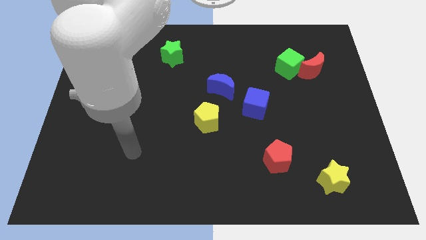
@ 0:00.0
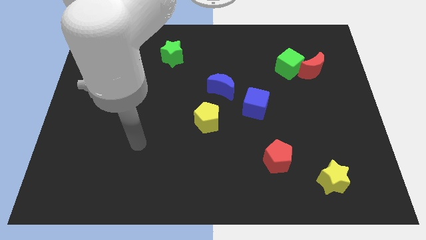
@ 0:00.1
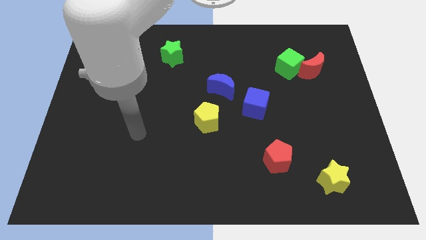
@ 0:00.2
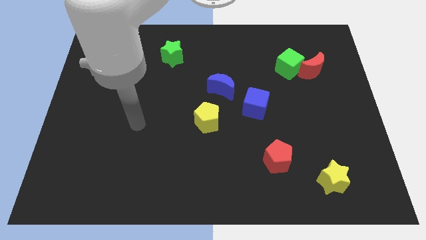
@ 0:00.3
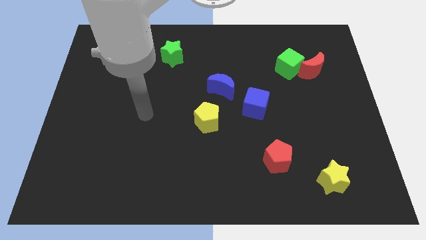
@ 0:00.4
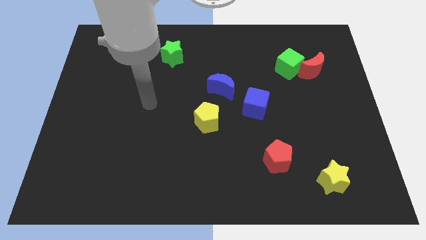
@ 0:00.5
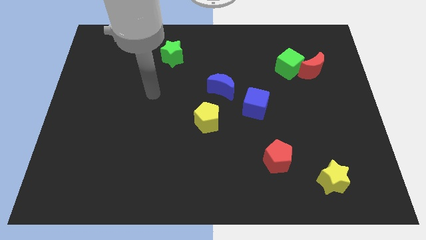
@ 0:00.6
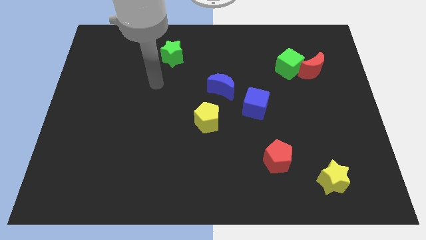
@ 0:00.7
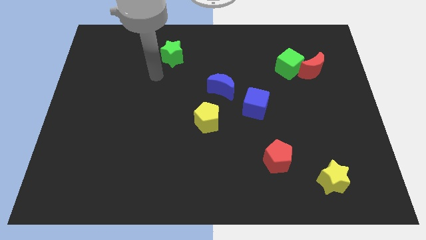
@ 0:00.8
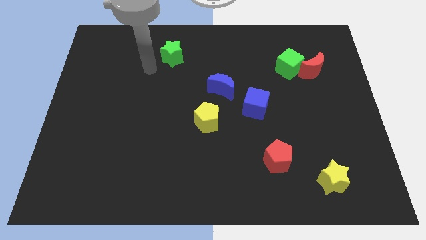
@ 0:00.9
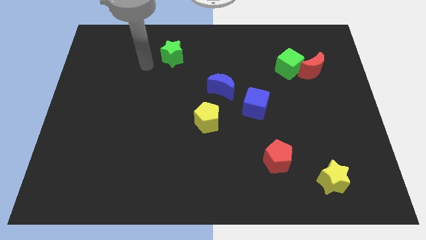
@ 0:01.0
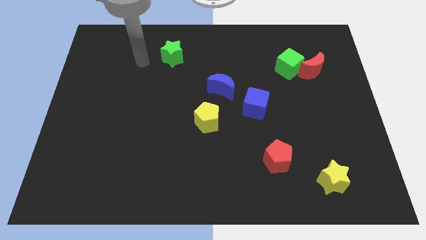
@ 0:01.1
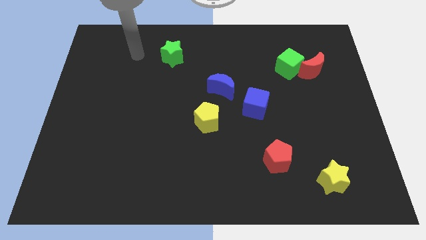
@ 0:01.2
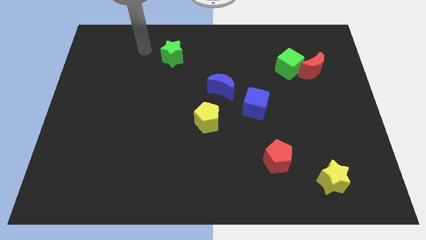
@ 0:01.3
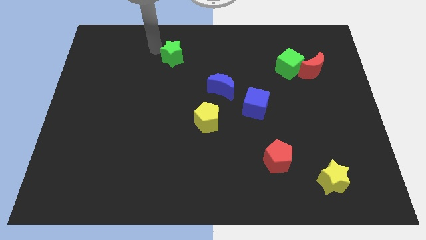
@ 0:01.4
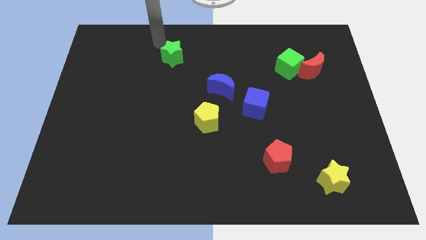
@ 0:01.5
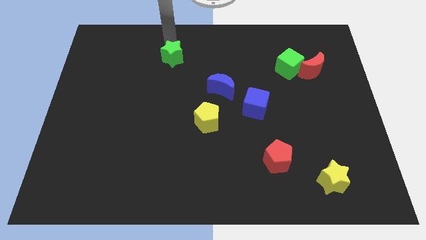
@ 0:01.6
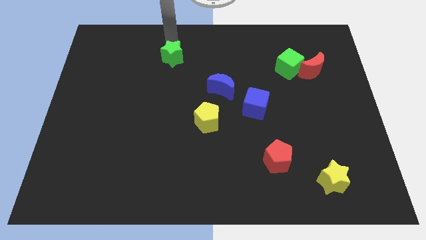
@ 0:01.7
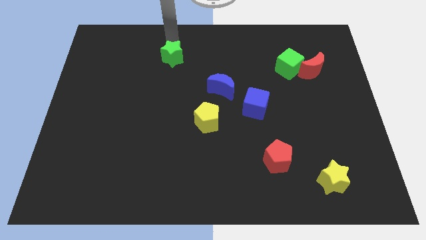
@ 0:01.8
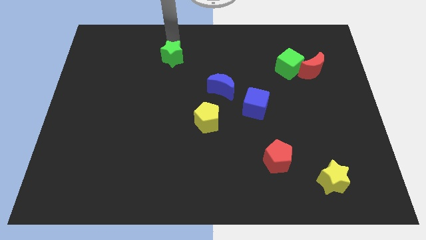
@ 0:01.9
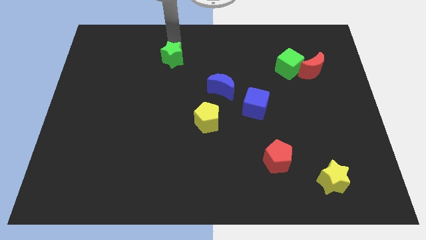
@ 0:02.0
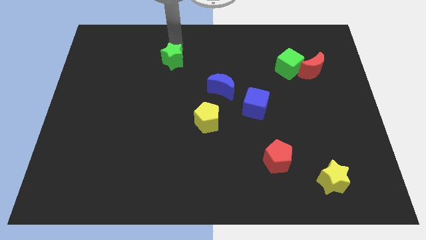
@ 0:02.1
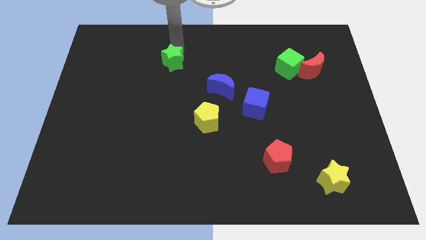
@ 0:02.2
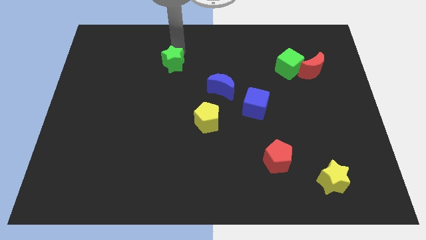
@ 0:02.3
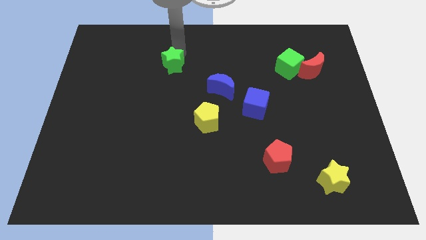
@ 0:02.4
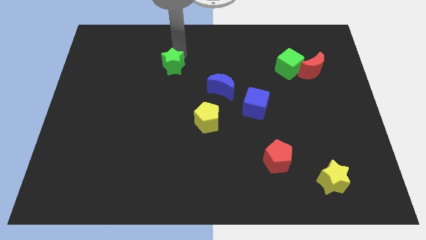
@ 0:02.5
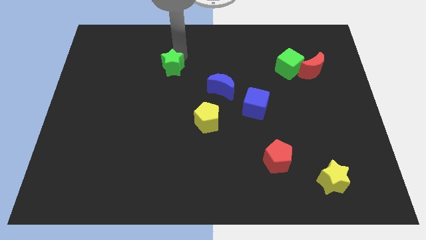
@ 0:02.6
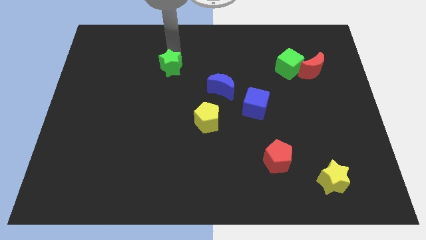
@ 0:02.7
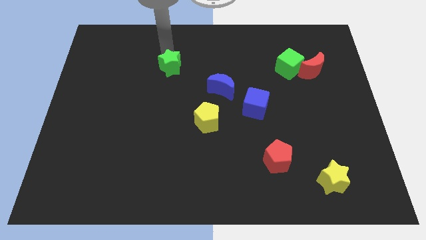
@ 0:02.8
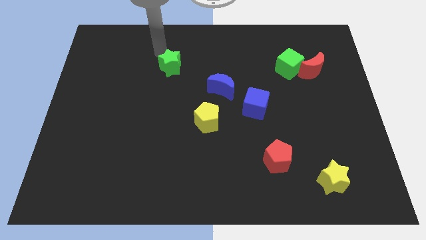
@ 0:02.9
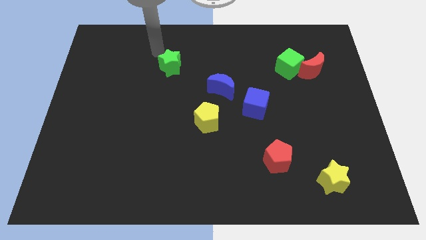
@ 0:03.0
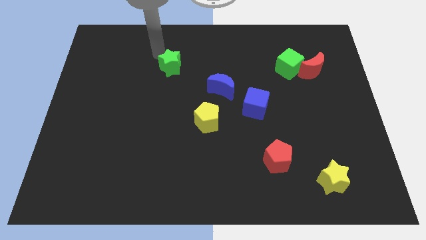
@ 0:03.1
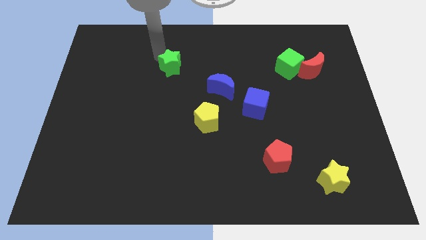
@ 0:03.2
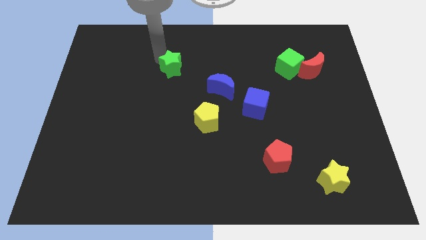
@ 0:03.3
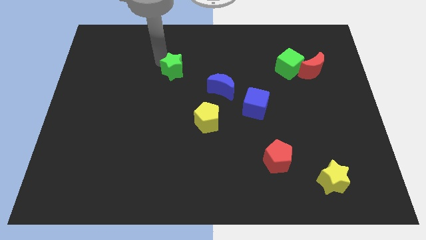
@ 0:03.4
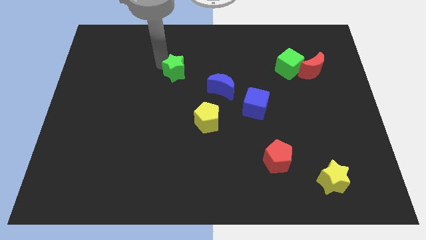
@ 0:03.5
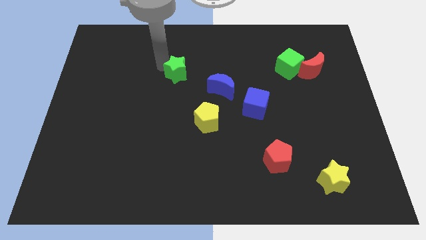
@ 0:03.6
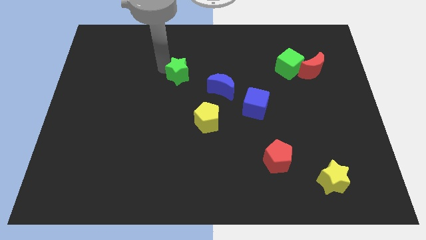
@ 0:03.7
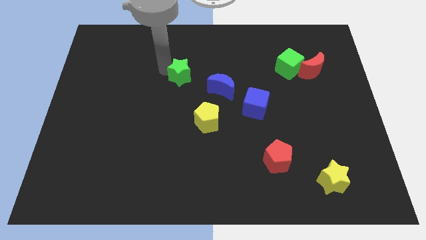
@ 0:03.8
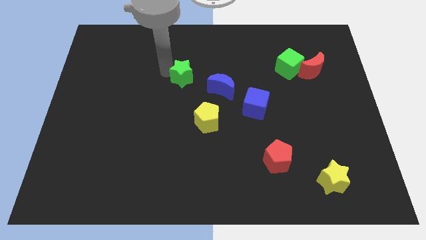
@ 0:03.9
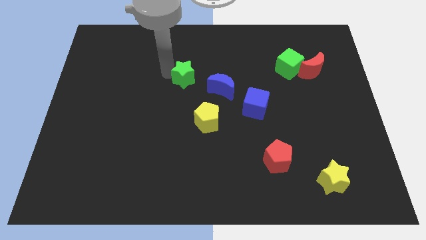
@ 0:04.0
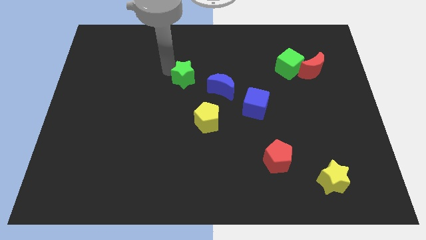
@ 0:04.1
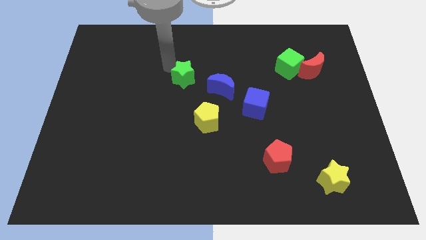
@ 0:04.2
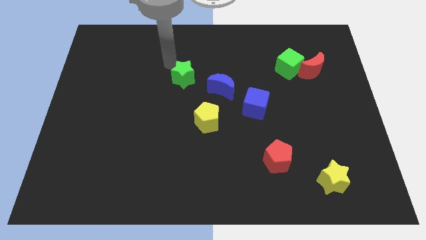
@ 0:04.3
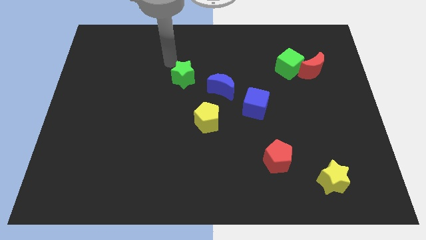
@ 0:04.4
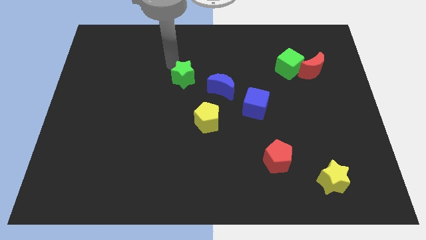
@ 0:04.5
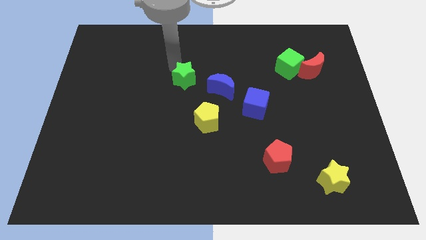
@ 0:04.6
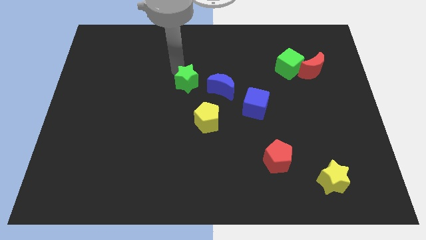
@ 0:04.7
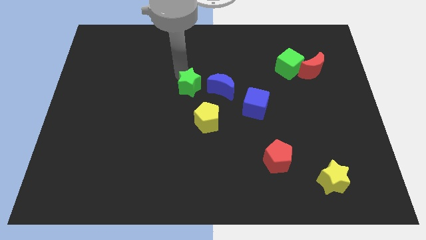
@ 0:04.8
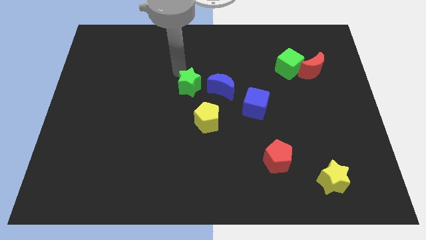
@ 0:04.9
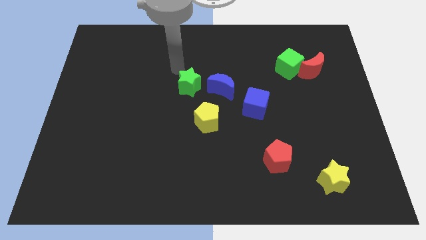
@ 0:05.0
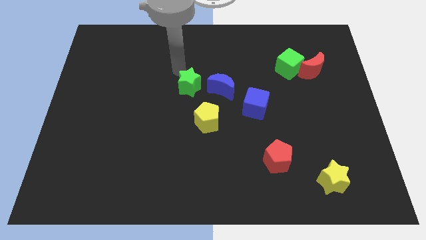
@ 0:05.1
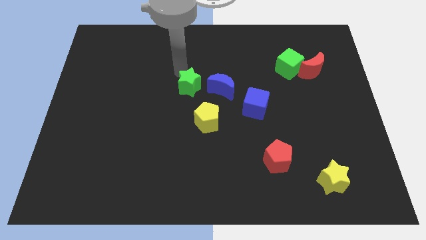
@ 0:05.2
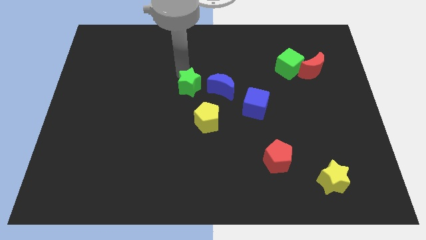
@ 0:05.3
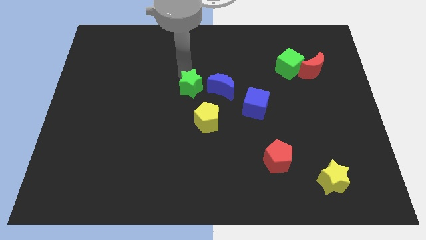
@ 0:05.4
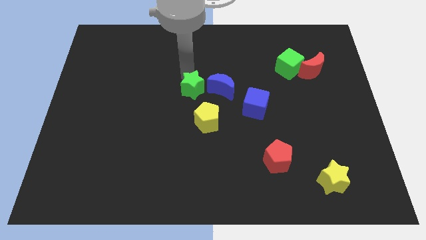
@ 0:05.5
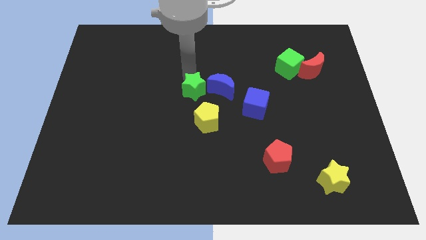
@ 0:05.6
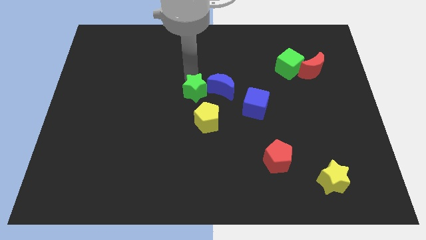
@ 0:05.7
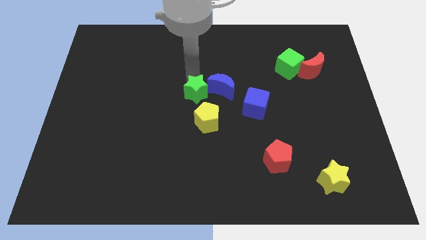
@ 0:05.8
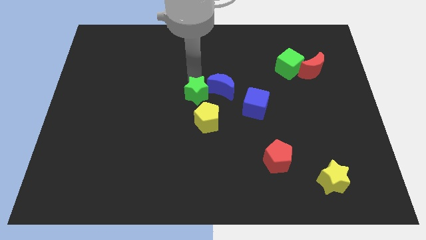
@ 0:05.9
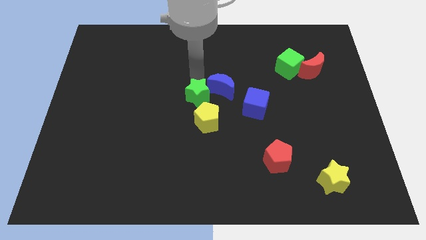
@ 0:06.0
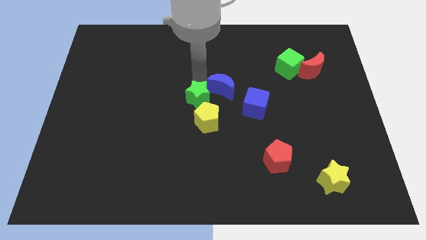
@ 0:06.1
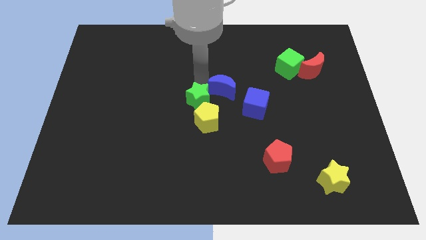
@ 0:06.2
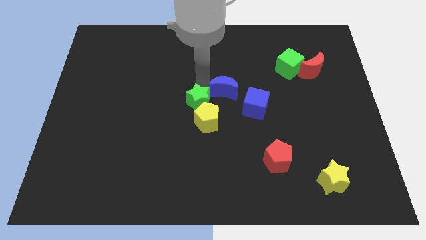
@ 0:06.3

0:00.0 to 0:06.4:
slide the green star next to the yellow pentagon

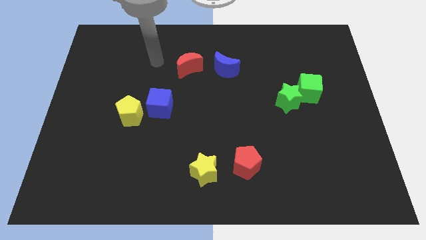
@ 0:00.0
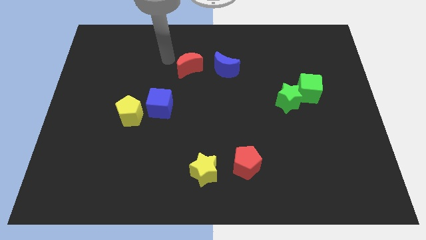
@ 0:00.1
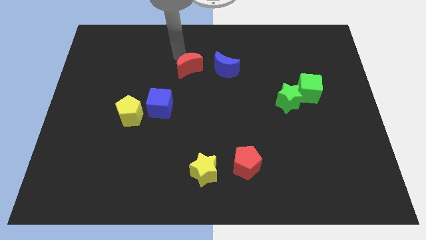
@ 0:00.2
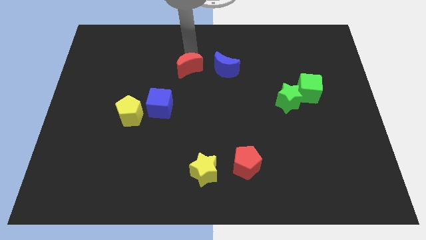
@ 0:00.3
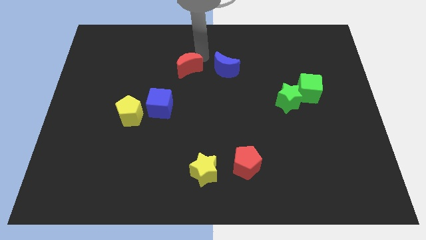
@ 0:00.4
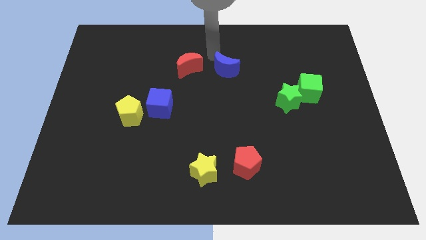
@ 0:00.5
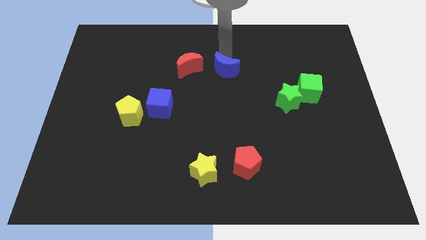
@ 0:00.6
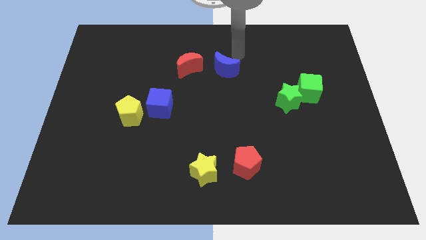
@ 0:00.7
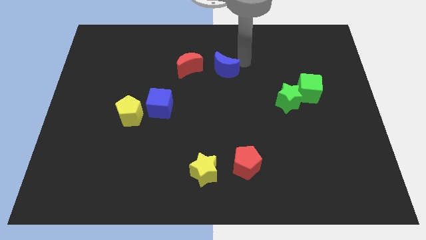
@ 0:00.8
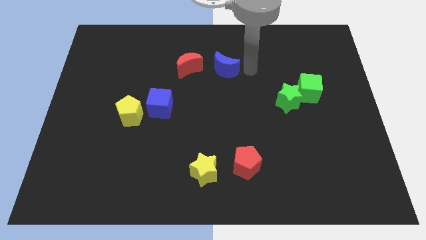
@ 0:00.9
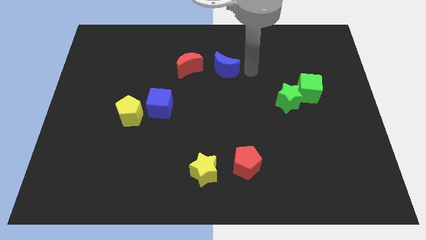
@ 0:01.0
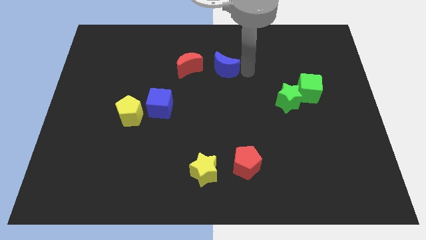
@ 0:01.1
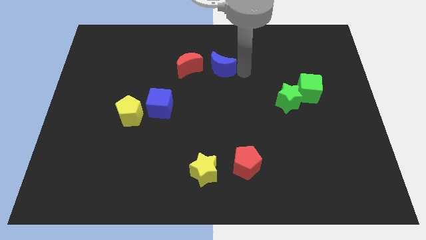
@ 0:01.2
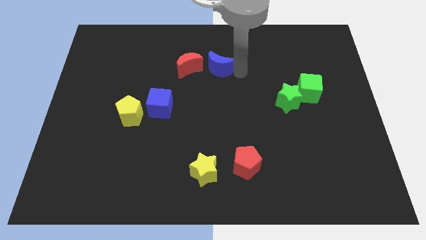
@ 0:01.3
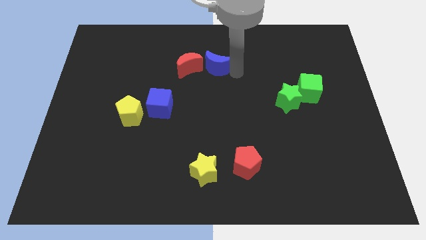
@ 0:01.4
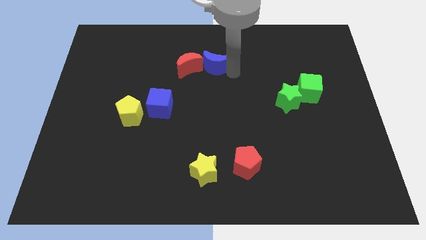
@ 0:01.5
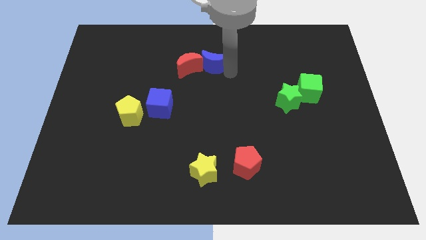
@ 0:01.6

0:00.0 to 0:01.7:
push the blue moon towards the red moon
